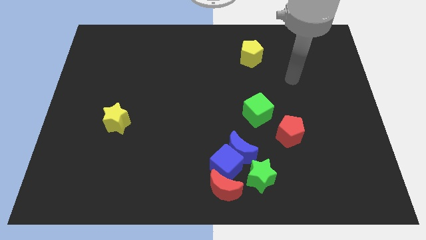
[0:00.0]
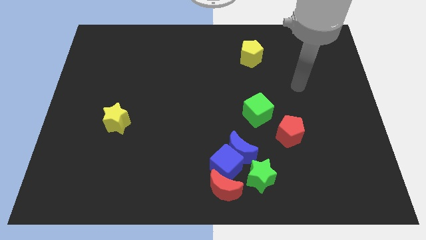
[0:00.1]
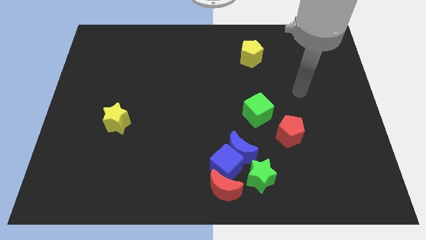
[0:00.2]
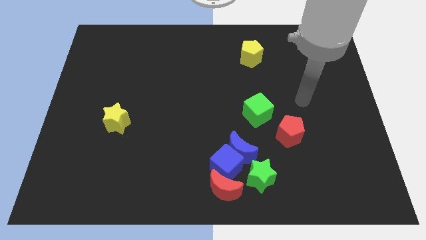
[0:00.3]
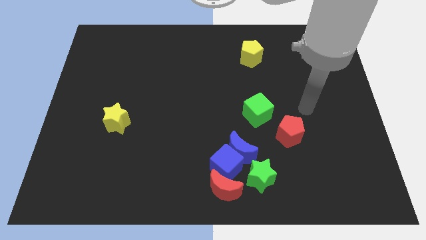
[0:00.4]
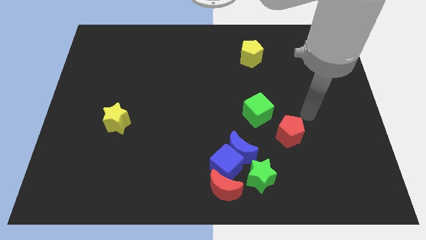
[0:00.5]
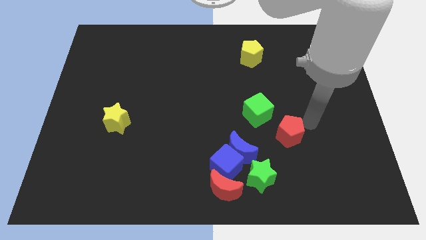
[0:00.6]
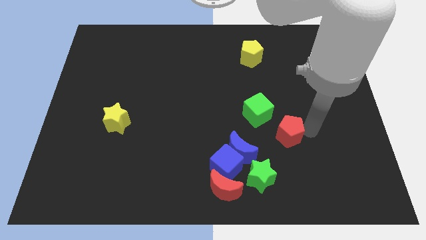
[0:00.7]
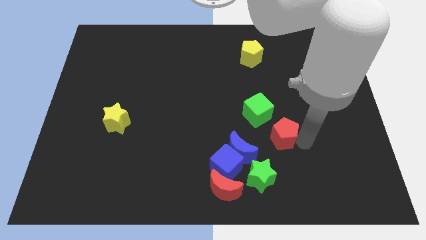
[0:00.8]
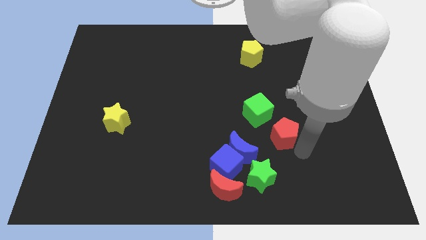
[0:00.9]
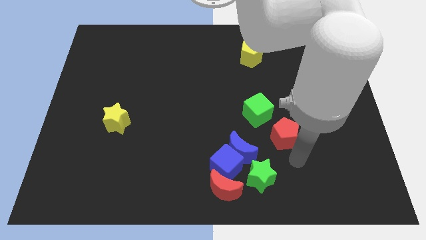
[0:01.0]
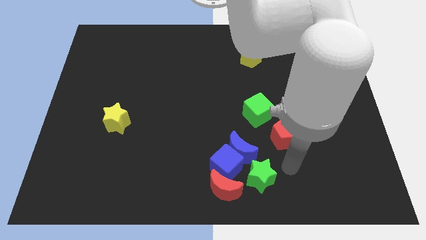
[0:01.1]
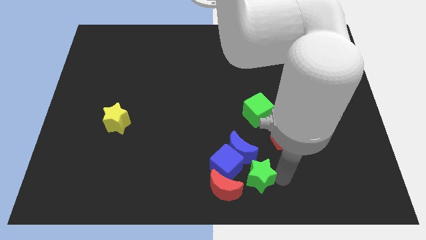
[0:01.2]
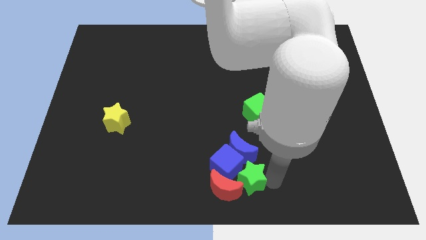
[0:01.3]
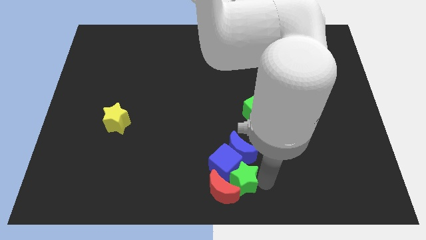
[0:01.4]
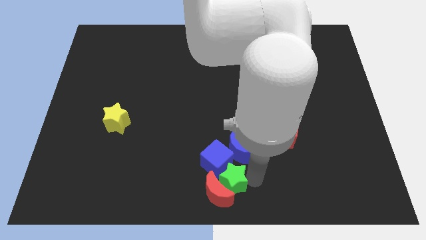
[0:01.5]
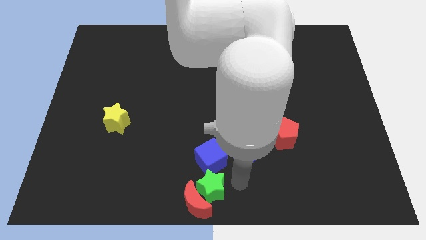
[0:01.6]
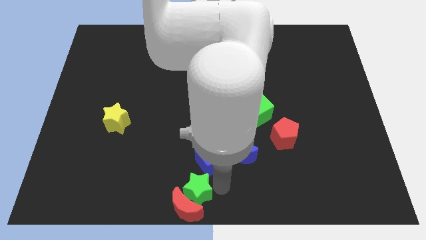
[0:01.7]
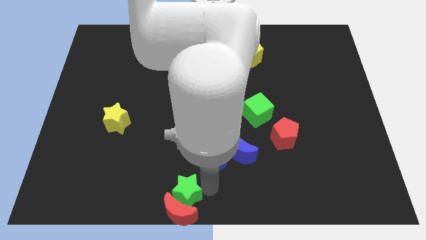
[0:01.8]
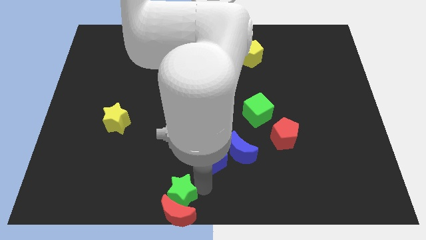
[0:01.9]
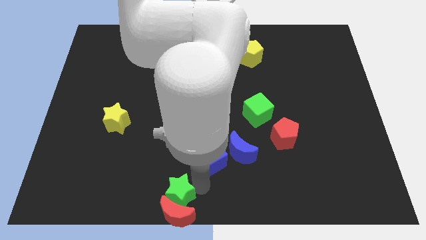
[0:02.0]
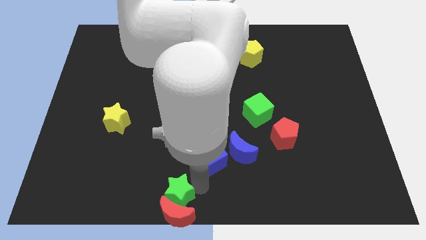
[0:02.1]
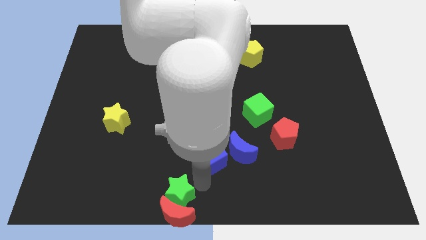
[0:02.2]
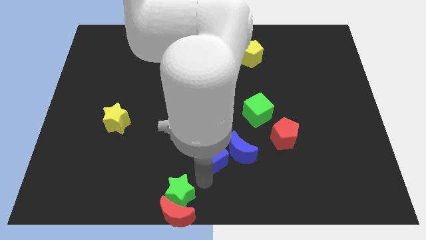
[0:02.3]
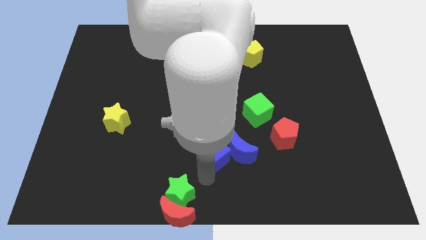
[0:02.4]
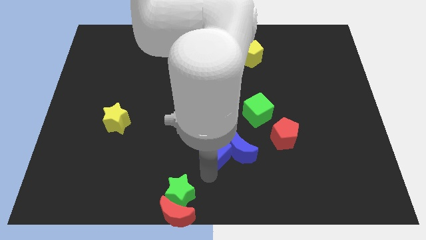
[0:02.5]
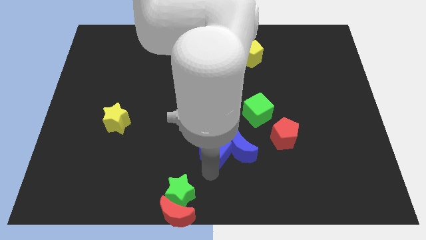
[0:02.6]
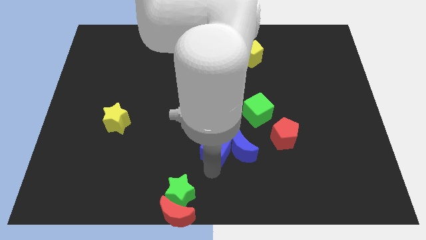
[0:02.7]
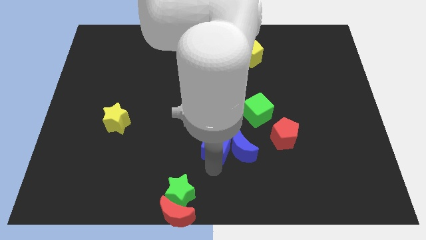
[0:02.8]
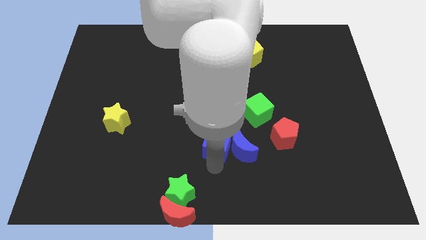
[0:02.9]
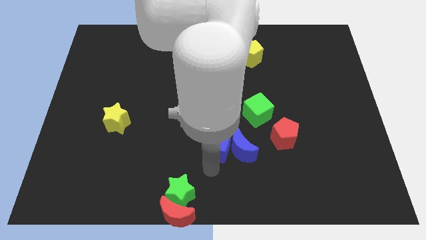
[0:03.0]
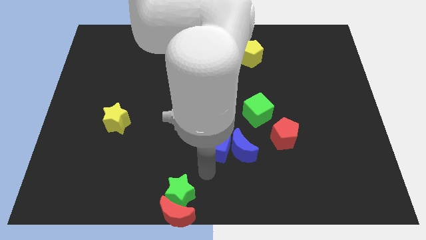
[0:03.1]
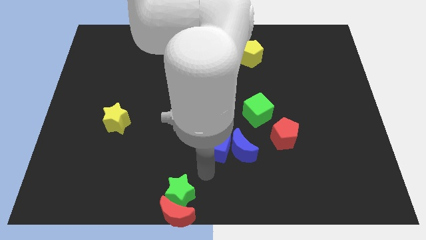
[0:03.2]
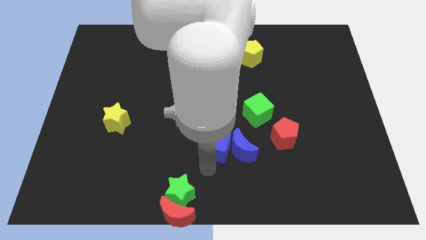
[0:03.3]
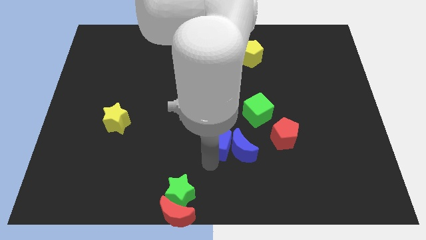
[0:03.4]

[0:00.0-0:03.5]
separate the blue cube from the group of blocks

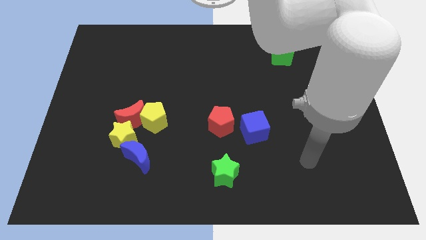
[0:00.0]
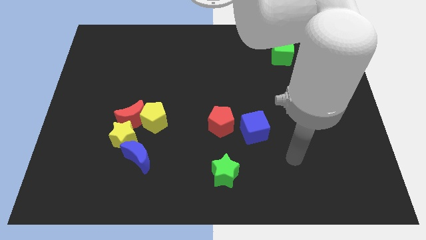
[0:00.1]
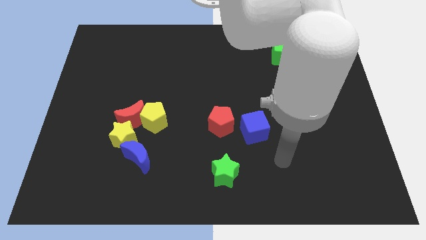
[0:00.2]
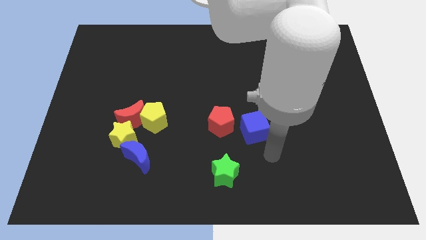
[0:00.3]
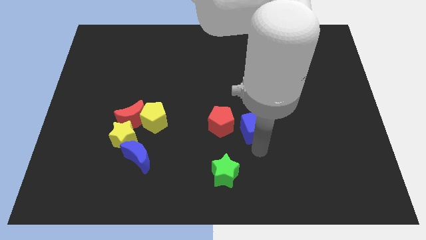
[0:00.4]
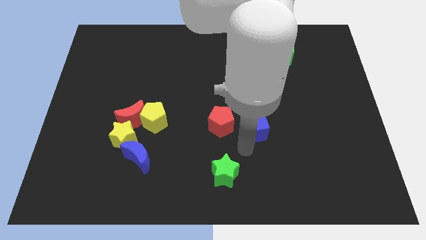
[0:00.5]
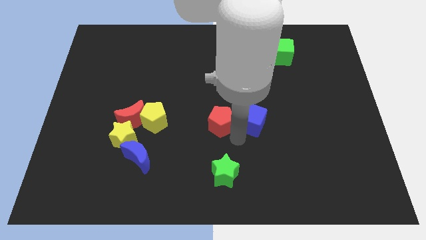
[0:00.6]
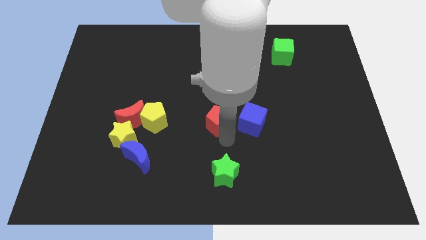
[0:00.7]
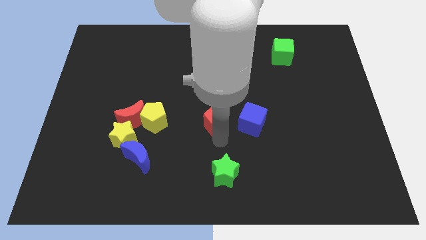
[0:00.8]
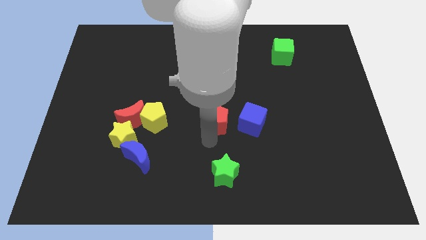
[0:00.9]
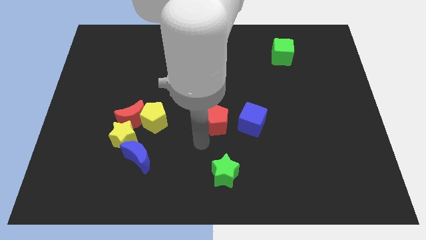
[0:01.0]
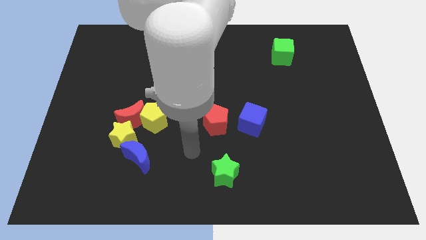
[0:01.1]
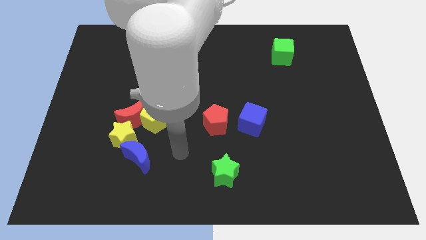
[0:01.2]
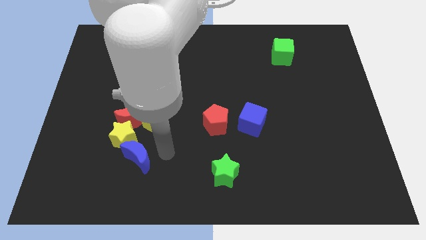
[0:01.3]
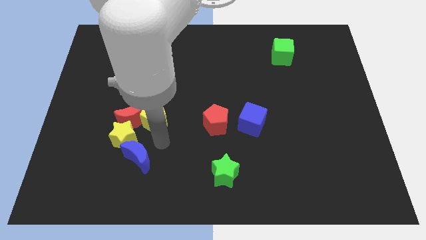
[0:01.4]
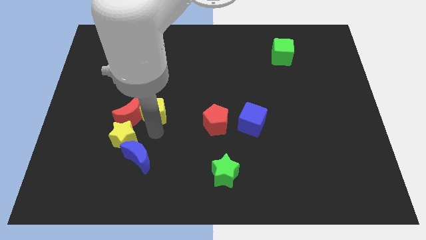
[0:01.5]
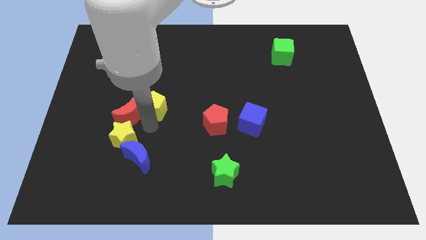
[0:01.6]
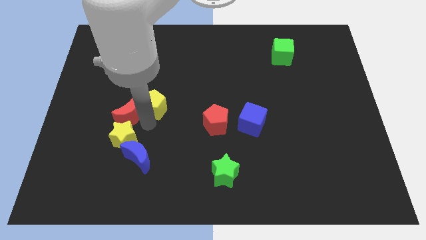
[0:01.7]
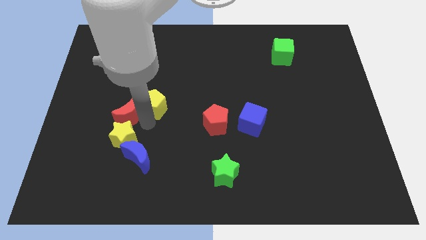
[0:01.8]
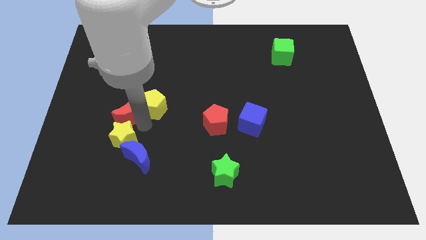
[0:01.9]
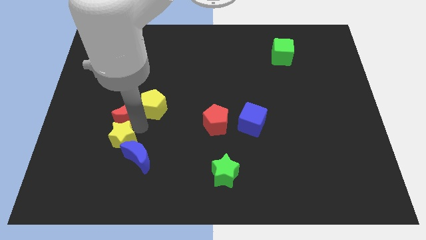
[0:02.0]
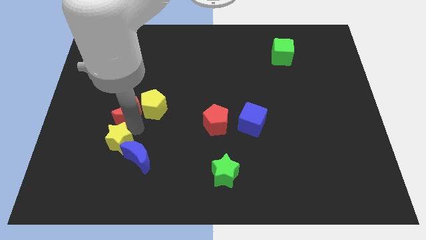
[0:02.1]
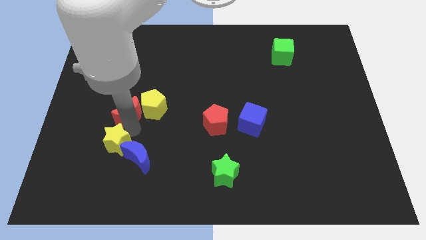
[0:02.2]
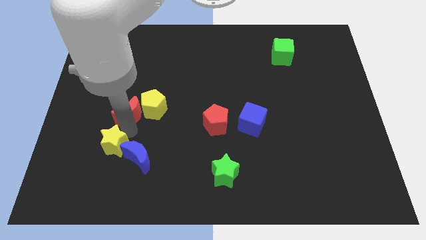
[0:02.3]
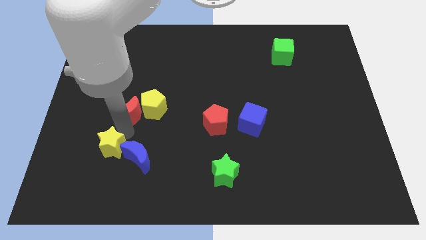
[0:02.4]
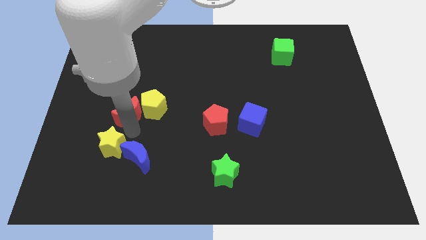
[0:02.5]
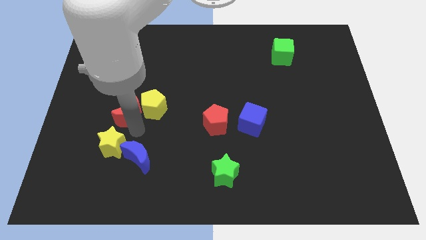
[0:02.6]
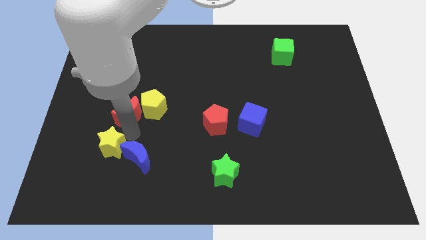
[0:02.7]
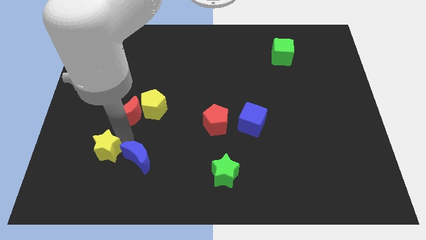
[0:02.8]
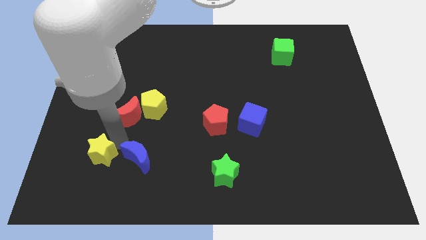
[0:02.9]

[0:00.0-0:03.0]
move the yellow star away from the group

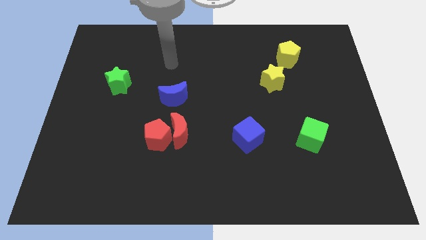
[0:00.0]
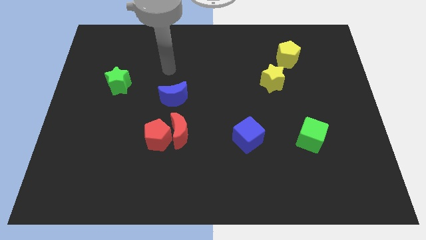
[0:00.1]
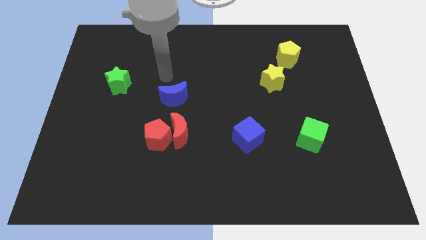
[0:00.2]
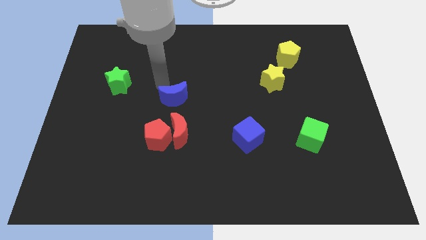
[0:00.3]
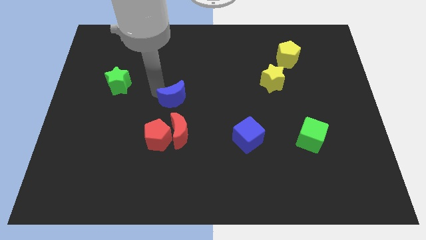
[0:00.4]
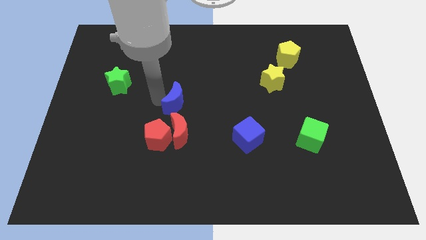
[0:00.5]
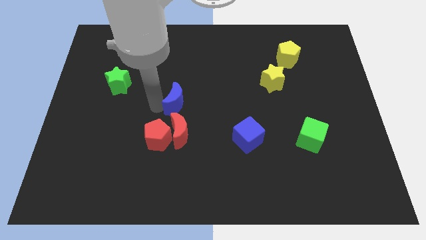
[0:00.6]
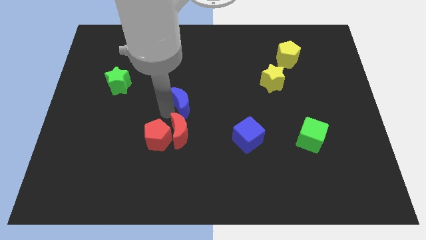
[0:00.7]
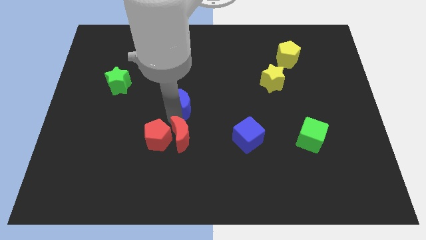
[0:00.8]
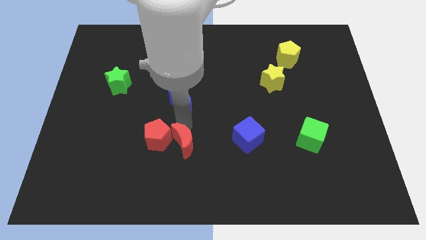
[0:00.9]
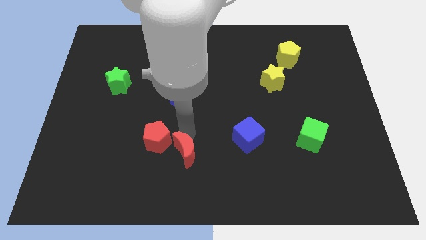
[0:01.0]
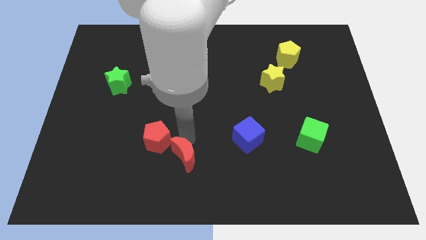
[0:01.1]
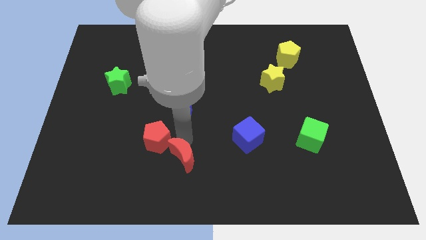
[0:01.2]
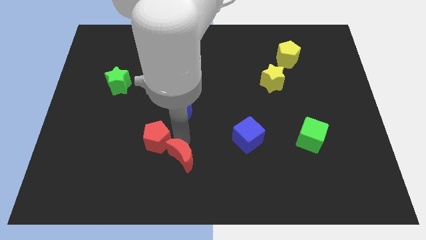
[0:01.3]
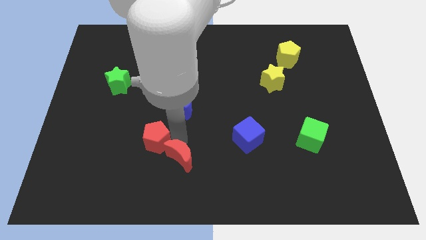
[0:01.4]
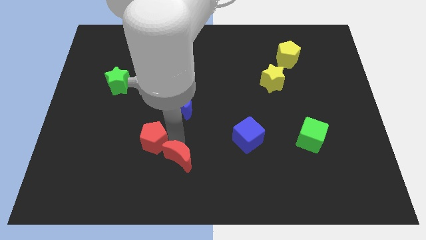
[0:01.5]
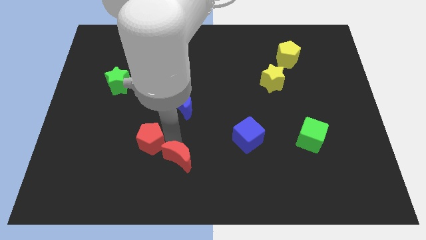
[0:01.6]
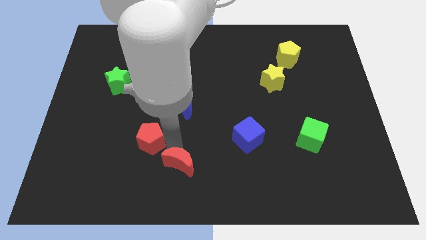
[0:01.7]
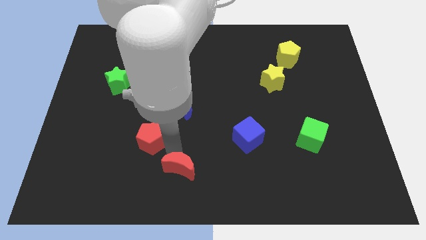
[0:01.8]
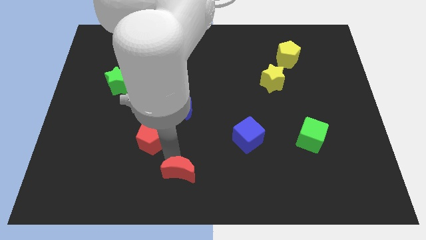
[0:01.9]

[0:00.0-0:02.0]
separate the red pentagon from the red moon

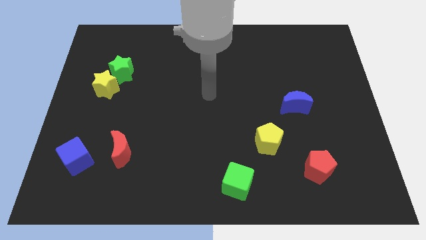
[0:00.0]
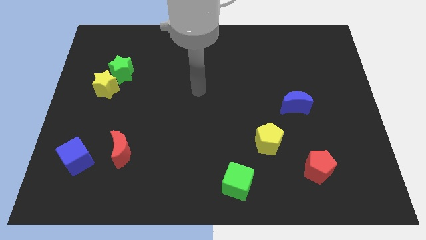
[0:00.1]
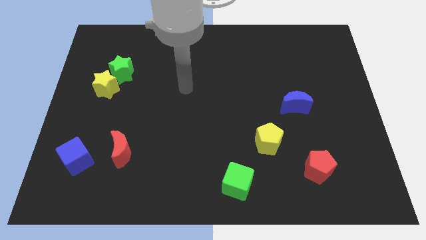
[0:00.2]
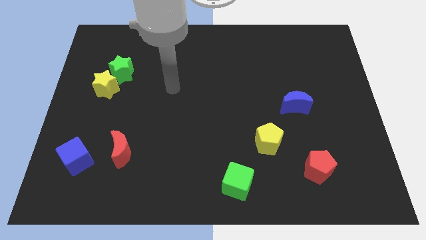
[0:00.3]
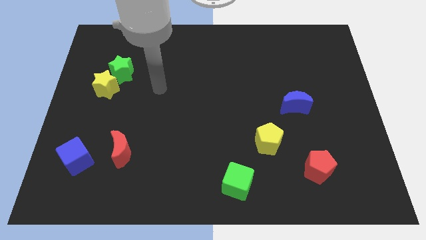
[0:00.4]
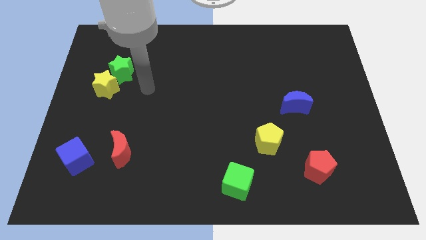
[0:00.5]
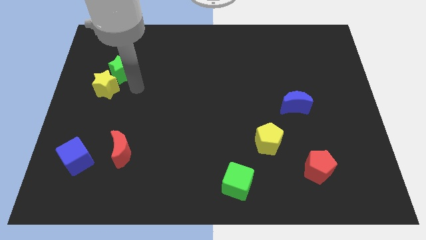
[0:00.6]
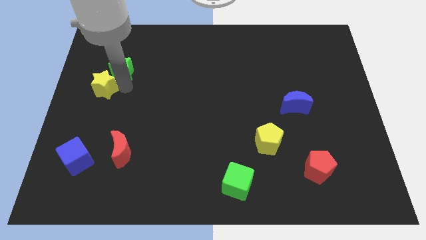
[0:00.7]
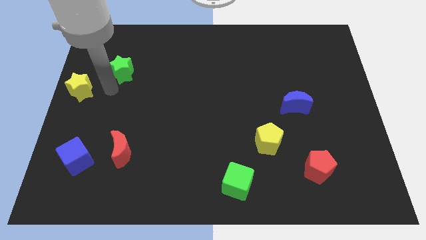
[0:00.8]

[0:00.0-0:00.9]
separate the green star from the yellow star
